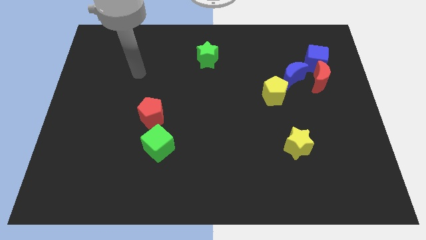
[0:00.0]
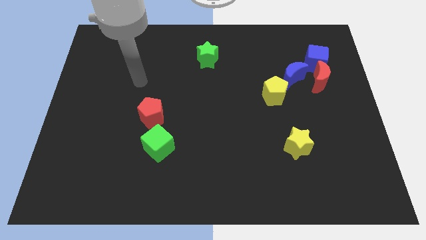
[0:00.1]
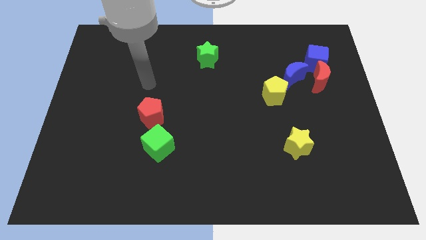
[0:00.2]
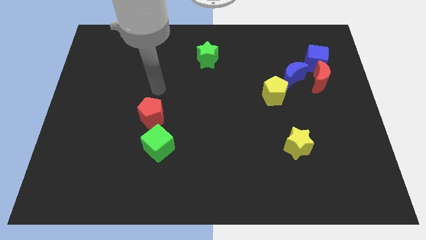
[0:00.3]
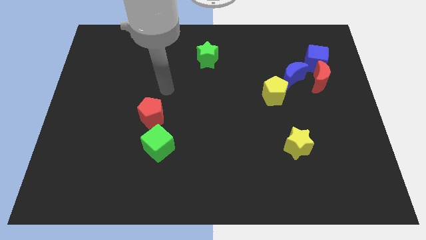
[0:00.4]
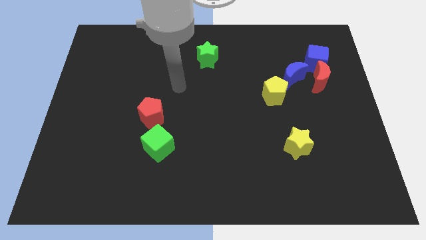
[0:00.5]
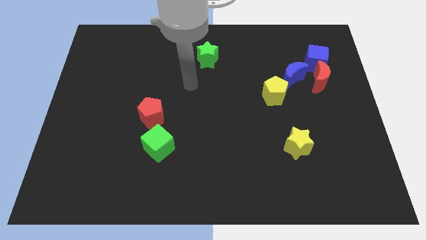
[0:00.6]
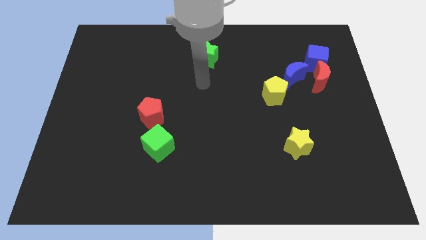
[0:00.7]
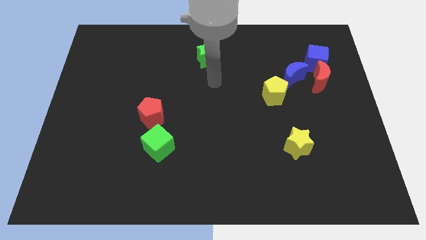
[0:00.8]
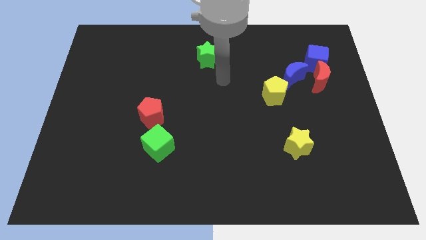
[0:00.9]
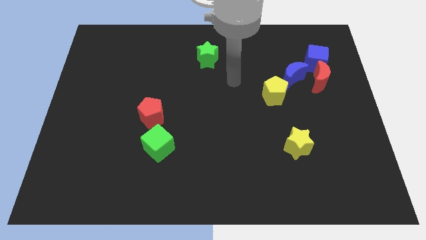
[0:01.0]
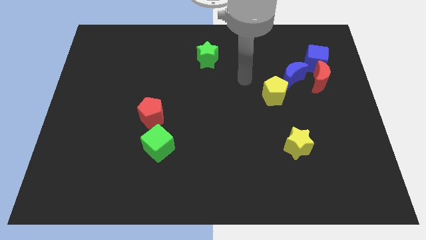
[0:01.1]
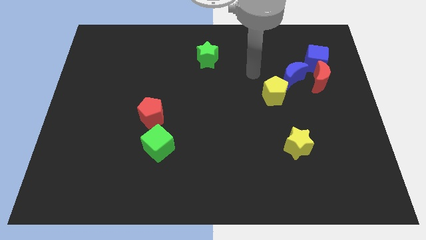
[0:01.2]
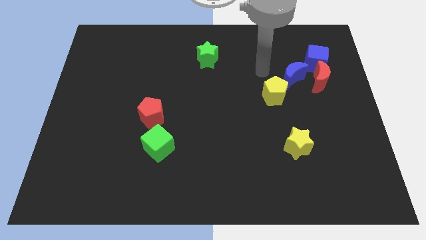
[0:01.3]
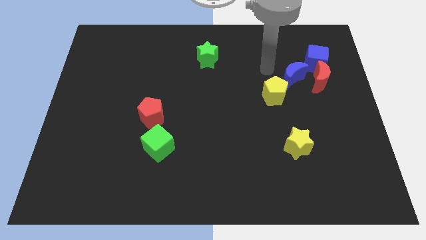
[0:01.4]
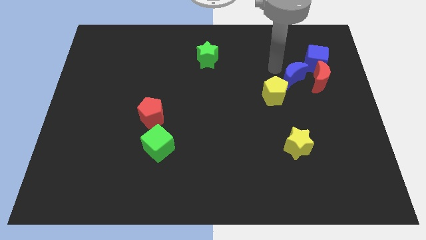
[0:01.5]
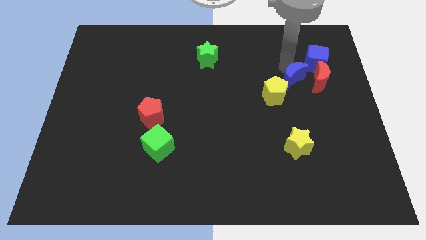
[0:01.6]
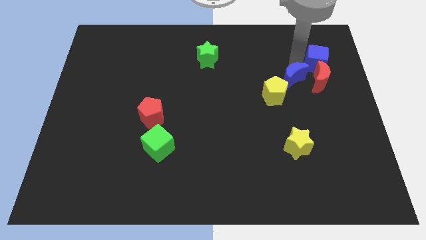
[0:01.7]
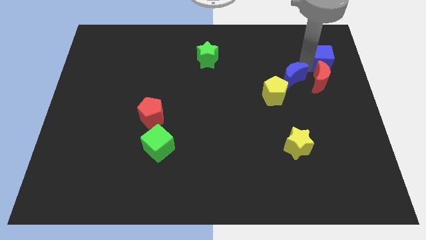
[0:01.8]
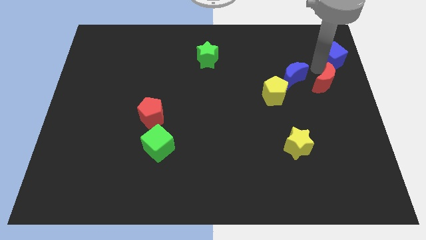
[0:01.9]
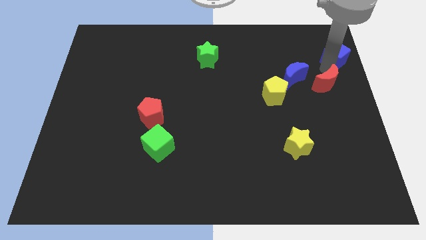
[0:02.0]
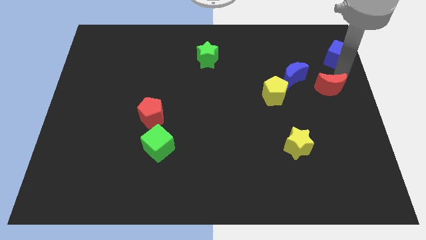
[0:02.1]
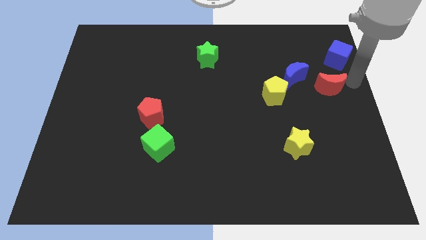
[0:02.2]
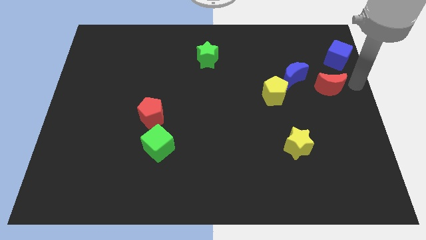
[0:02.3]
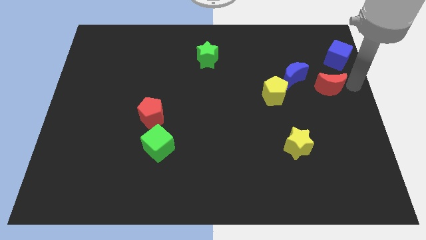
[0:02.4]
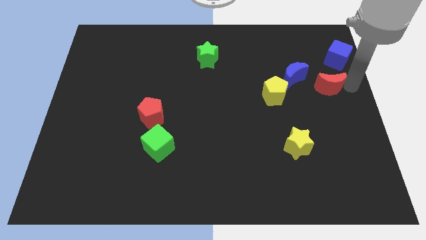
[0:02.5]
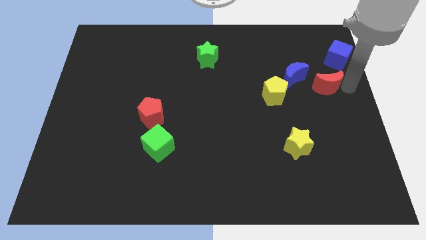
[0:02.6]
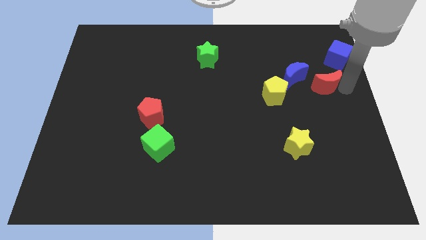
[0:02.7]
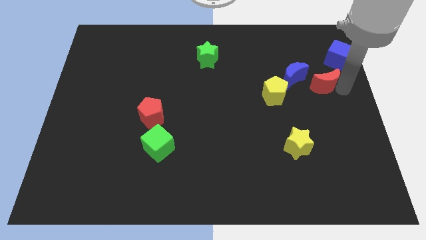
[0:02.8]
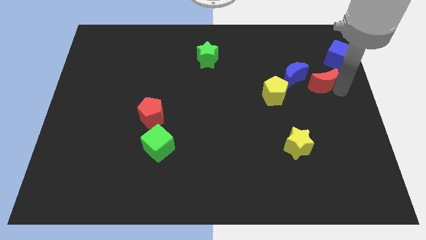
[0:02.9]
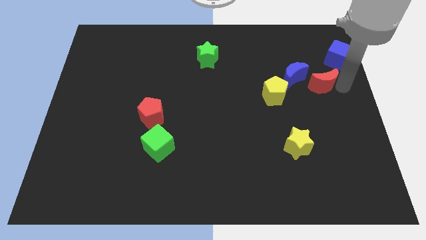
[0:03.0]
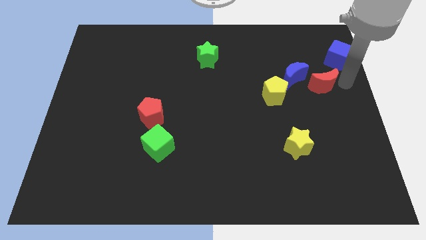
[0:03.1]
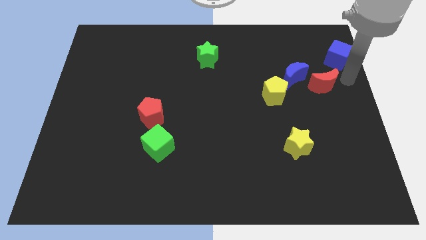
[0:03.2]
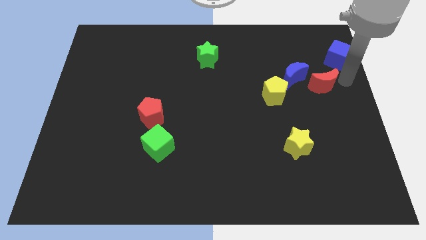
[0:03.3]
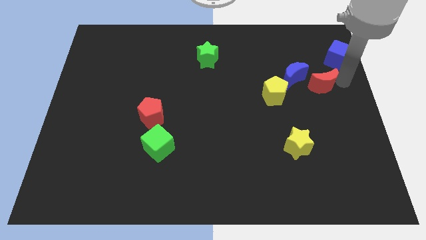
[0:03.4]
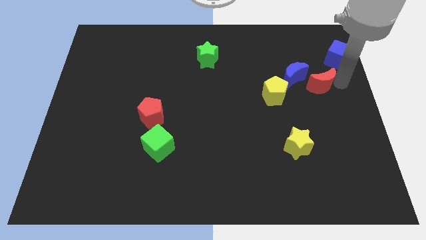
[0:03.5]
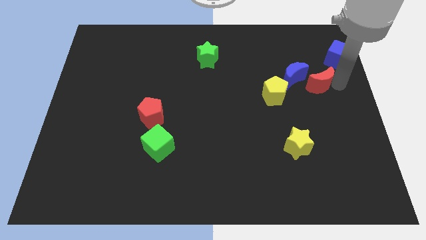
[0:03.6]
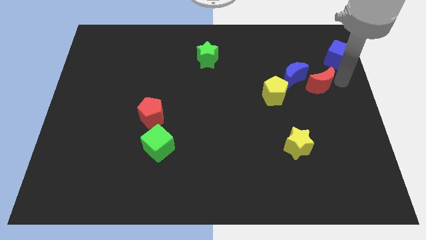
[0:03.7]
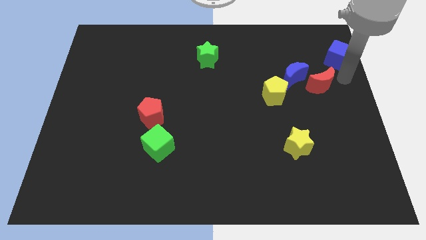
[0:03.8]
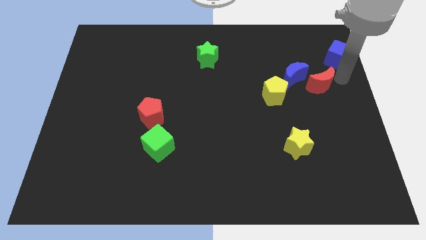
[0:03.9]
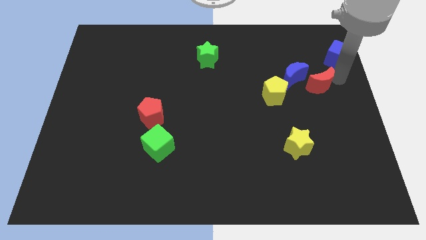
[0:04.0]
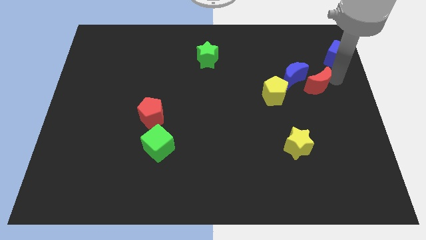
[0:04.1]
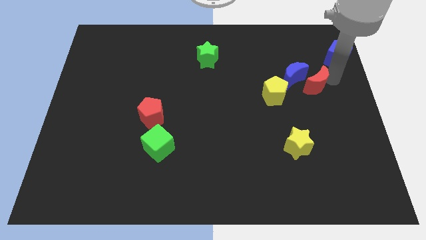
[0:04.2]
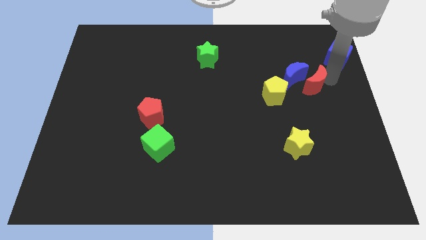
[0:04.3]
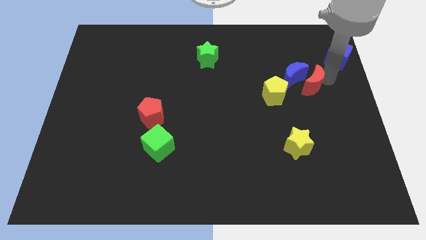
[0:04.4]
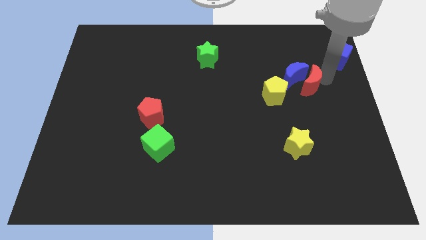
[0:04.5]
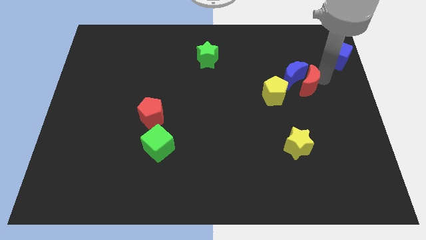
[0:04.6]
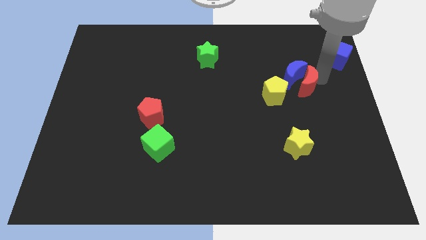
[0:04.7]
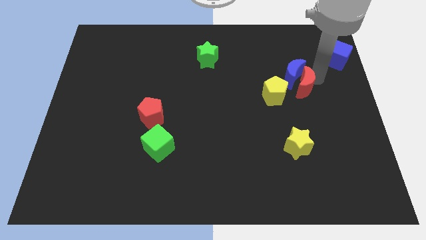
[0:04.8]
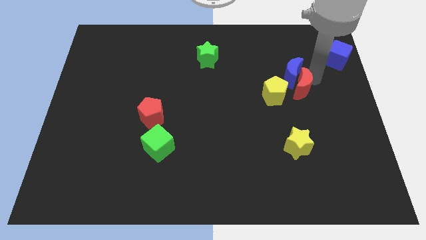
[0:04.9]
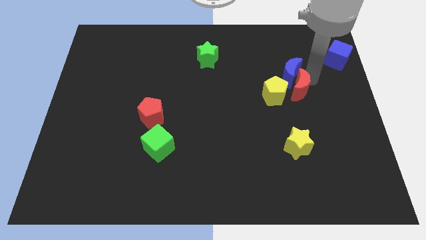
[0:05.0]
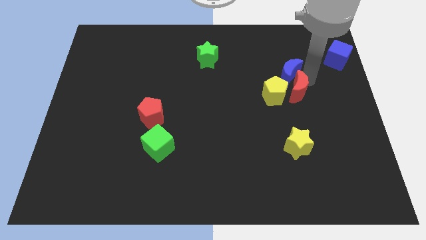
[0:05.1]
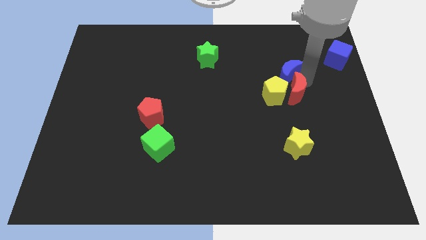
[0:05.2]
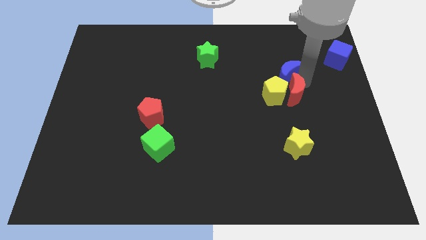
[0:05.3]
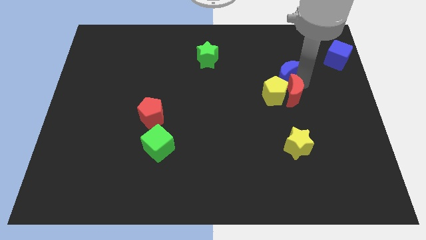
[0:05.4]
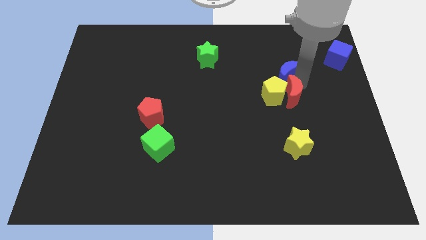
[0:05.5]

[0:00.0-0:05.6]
push the red moon a little left

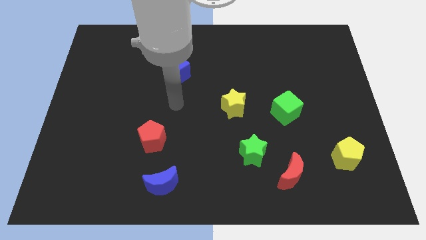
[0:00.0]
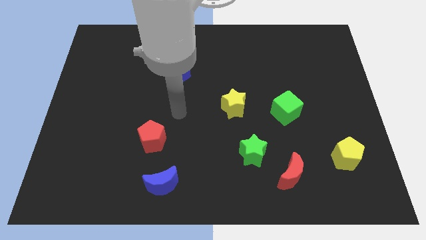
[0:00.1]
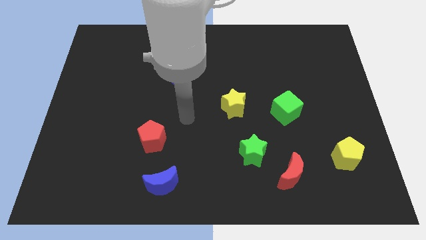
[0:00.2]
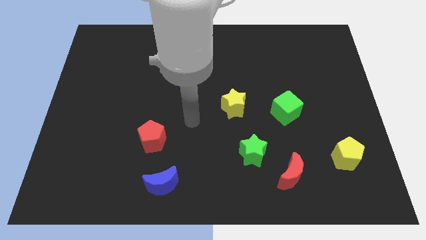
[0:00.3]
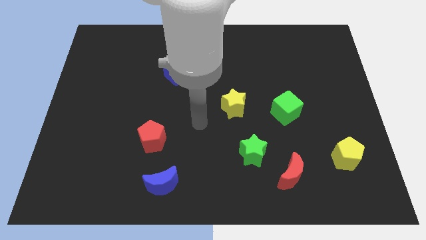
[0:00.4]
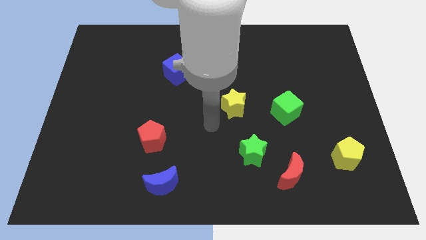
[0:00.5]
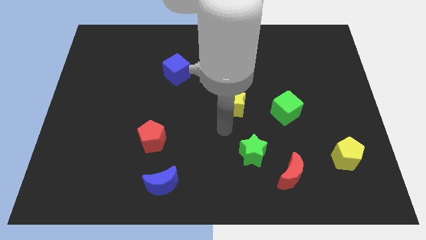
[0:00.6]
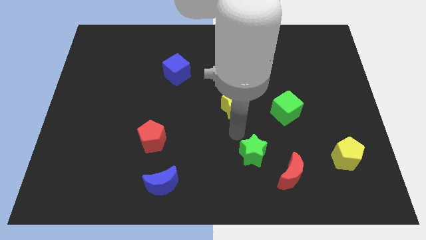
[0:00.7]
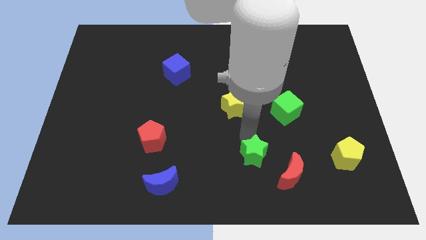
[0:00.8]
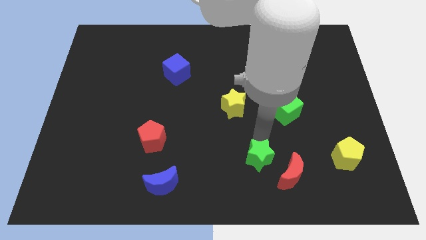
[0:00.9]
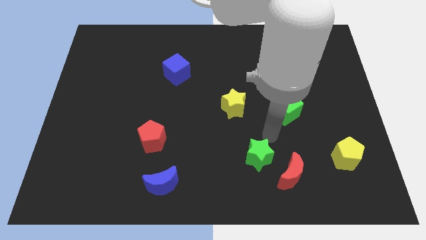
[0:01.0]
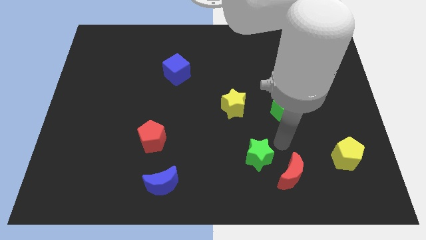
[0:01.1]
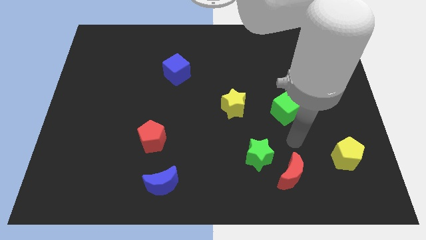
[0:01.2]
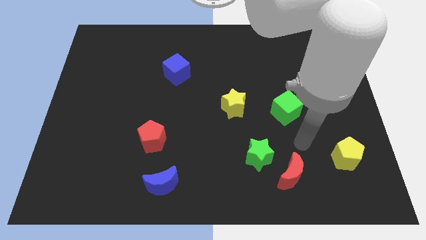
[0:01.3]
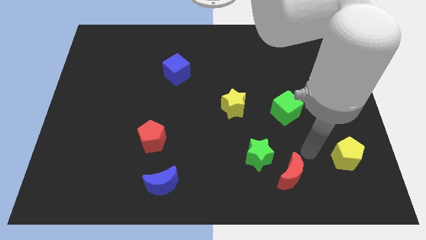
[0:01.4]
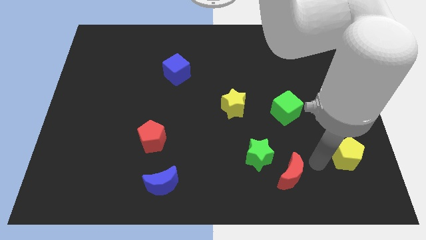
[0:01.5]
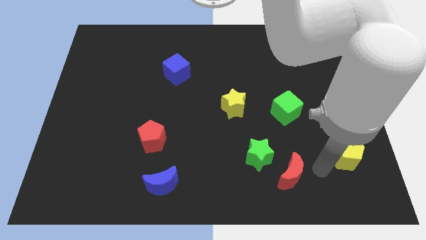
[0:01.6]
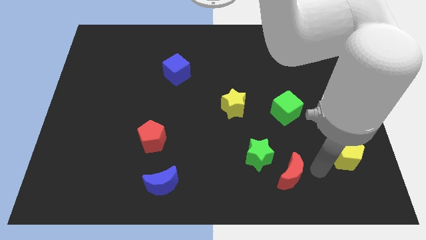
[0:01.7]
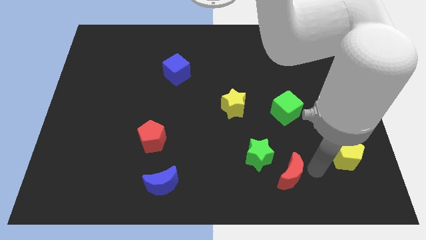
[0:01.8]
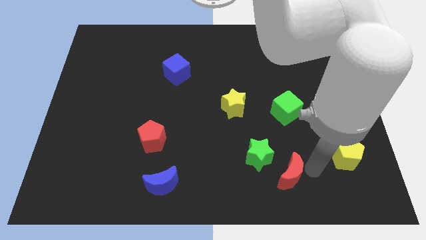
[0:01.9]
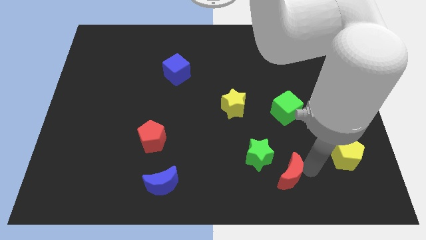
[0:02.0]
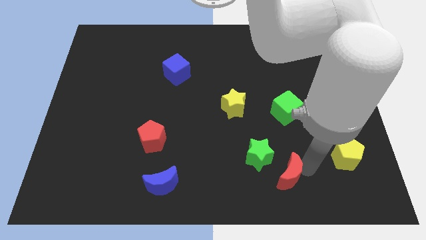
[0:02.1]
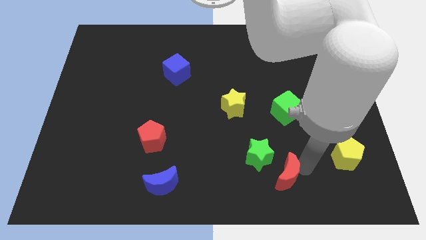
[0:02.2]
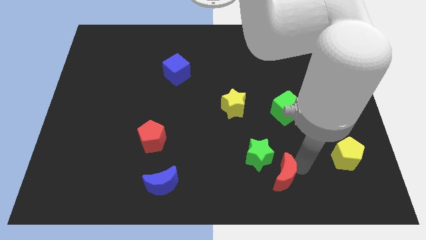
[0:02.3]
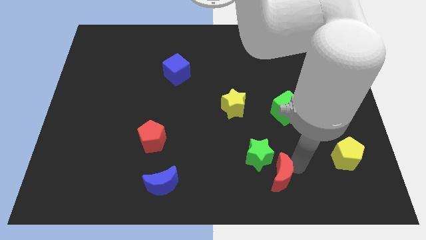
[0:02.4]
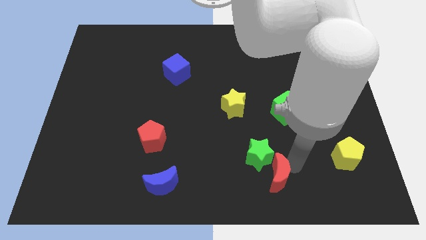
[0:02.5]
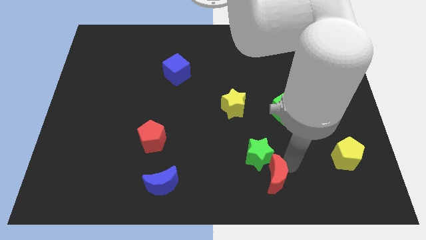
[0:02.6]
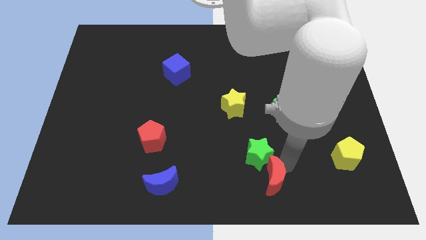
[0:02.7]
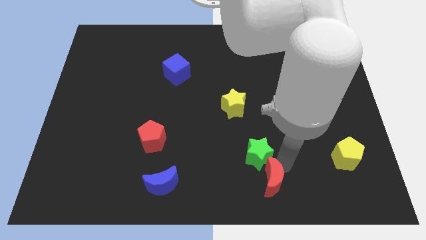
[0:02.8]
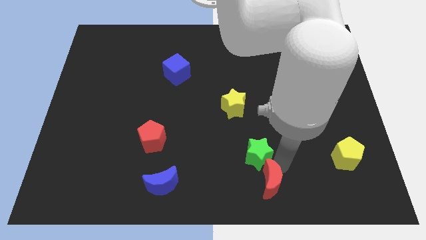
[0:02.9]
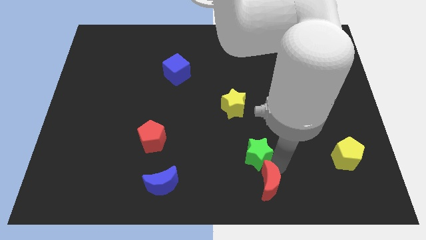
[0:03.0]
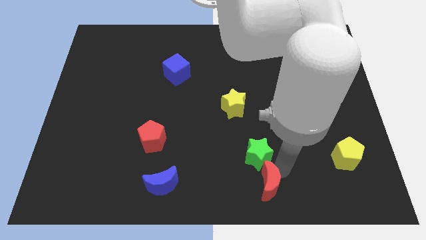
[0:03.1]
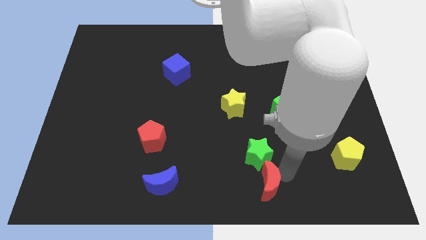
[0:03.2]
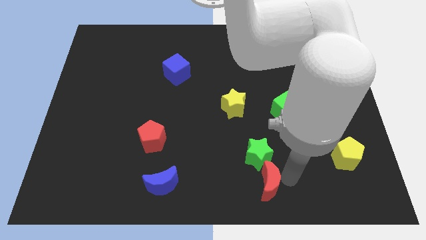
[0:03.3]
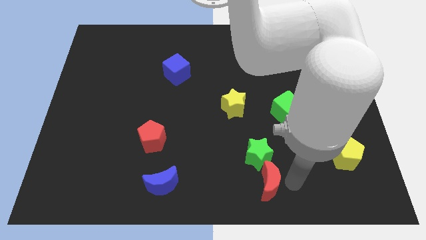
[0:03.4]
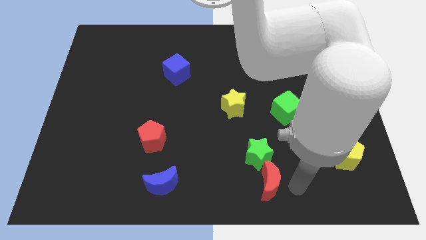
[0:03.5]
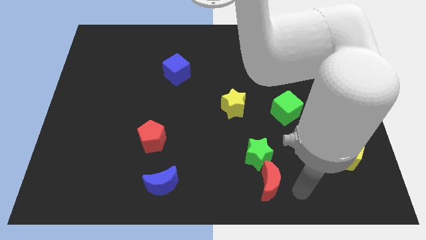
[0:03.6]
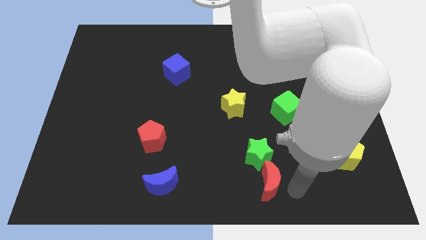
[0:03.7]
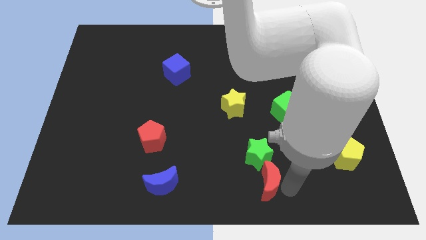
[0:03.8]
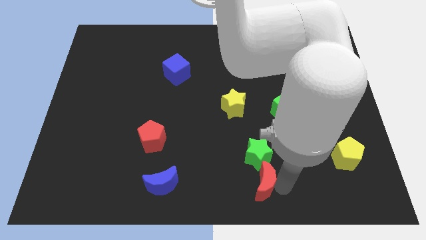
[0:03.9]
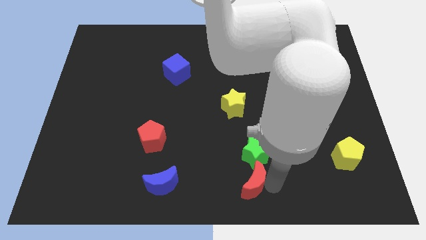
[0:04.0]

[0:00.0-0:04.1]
push the red moon left a bit
